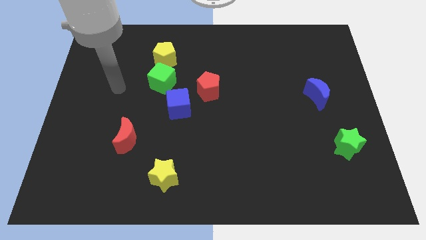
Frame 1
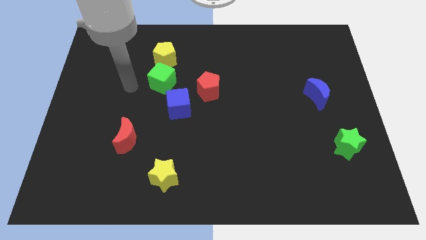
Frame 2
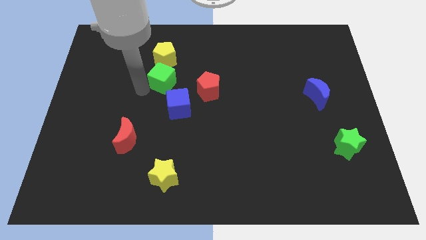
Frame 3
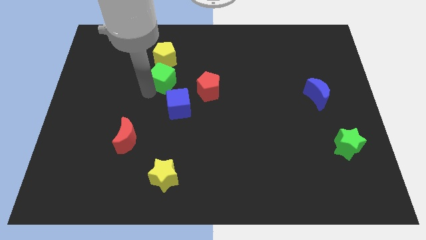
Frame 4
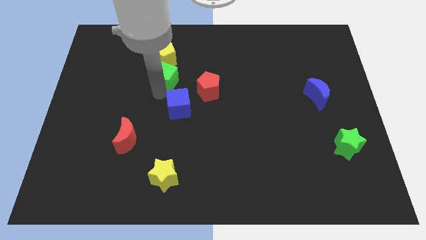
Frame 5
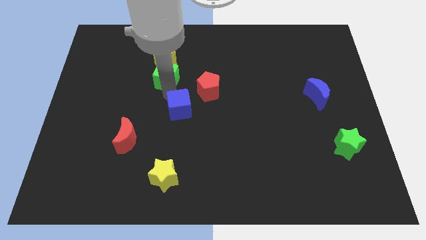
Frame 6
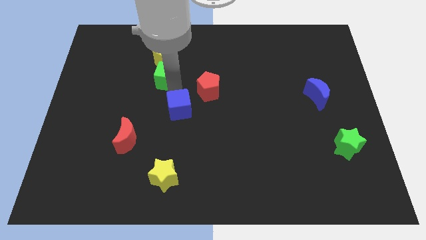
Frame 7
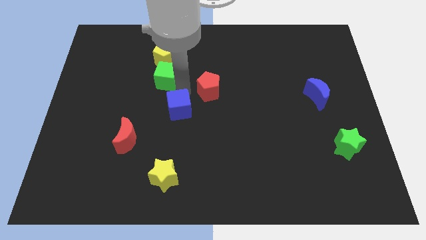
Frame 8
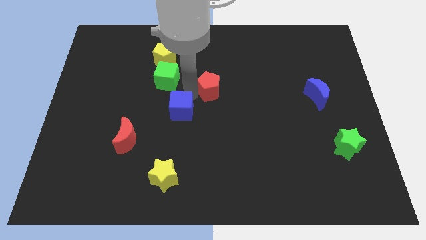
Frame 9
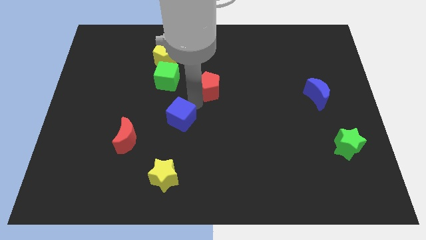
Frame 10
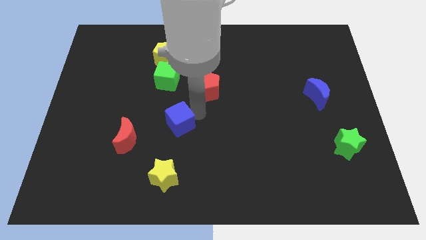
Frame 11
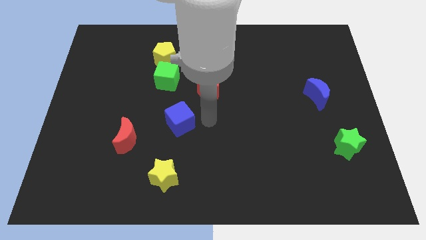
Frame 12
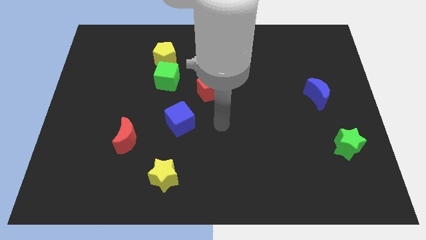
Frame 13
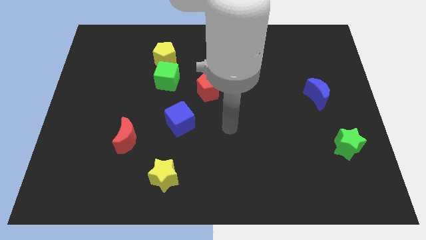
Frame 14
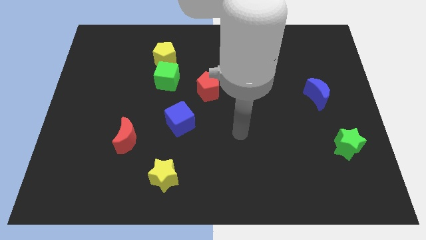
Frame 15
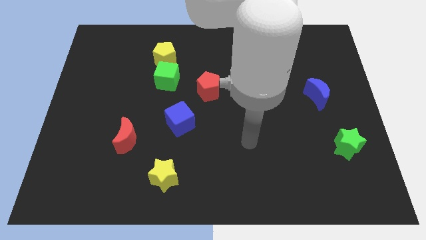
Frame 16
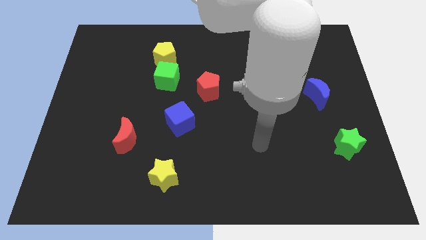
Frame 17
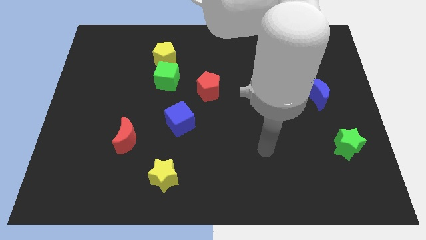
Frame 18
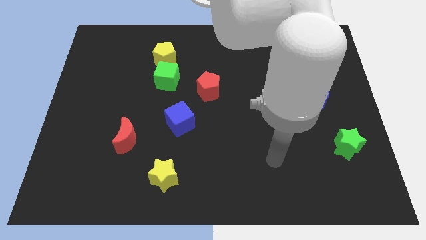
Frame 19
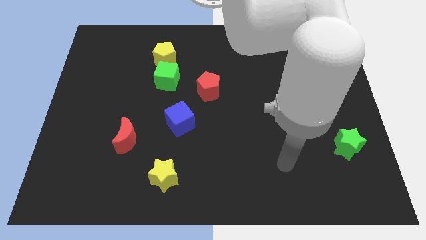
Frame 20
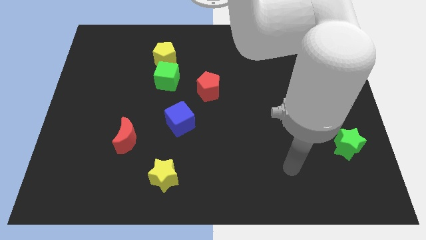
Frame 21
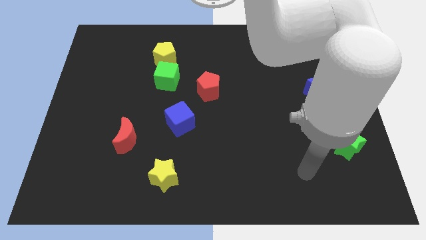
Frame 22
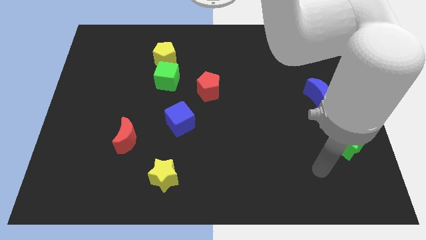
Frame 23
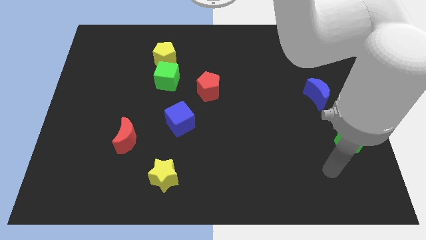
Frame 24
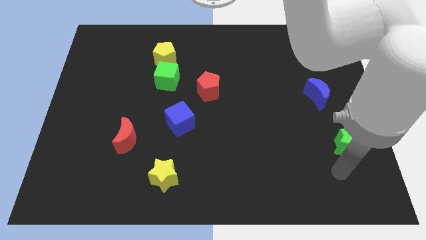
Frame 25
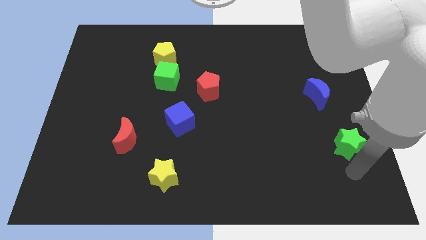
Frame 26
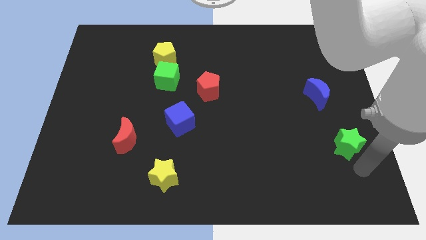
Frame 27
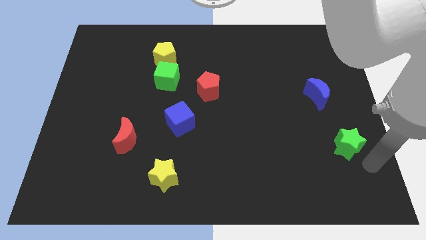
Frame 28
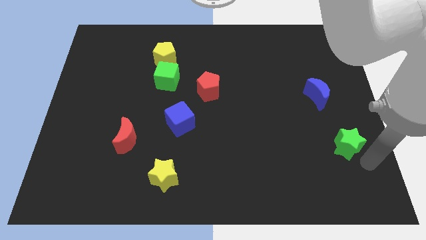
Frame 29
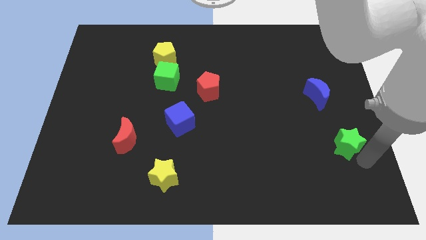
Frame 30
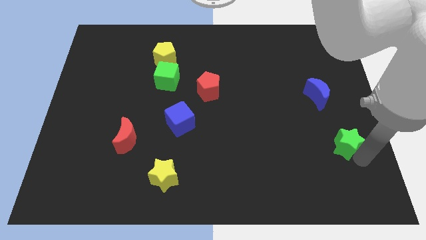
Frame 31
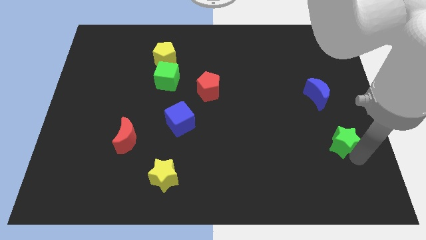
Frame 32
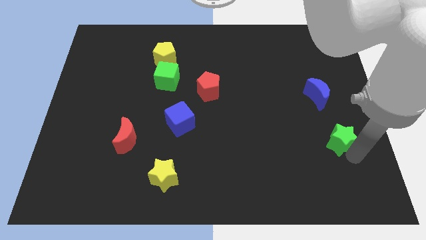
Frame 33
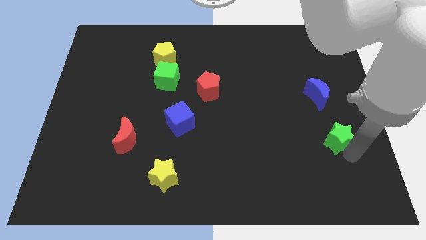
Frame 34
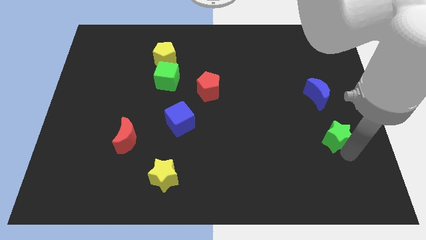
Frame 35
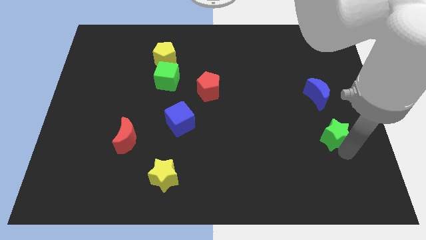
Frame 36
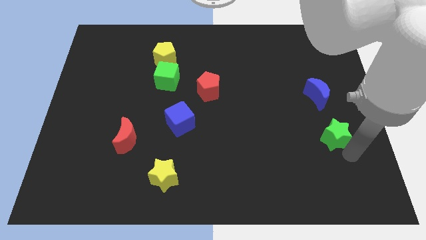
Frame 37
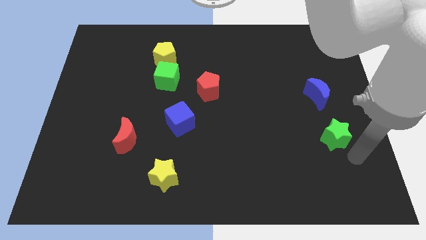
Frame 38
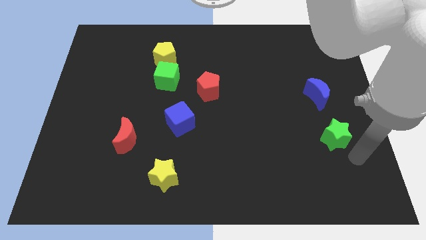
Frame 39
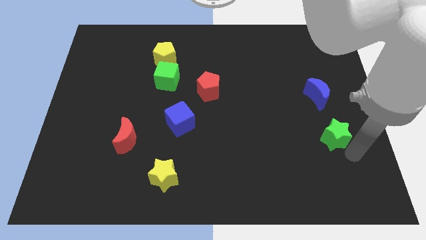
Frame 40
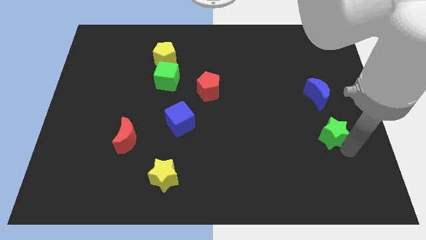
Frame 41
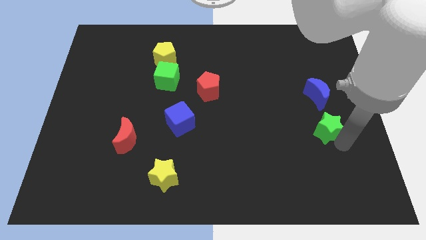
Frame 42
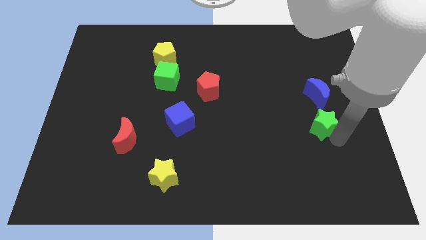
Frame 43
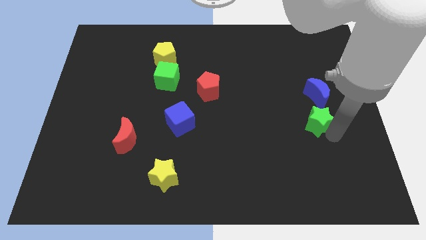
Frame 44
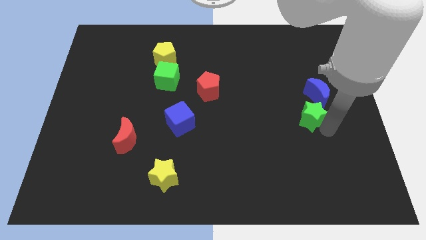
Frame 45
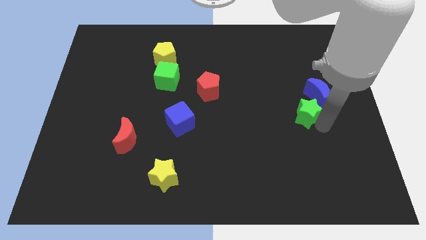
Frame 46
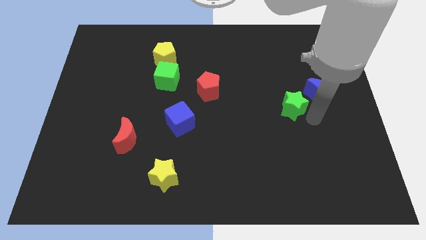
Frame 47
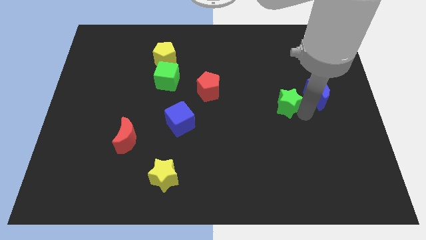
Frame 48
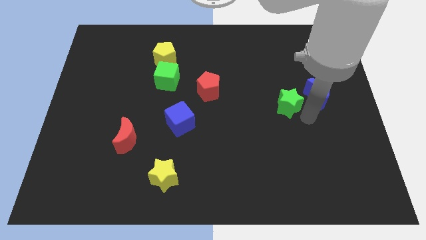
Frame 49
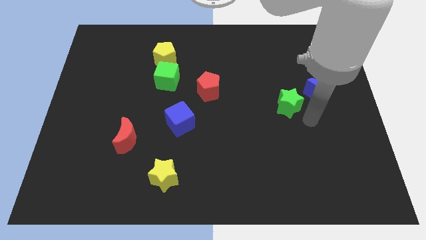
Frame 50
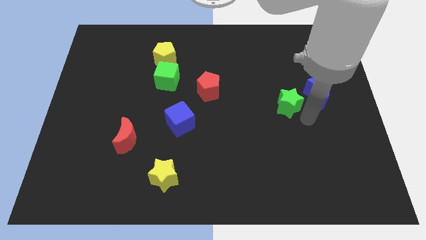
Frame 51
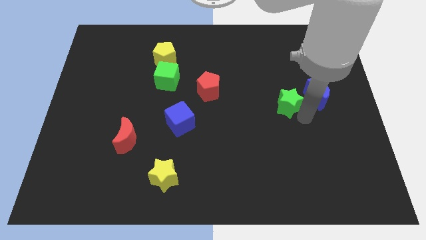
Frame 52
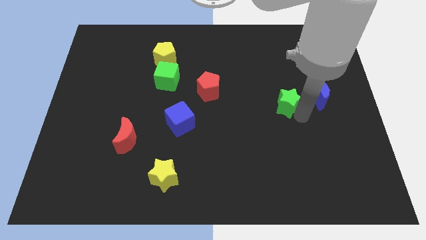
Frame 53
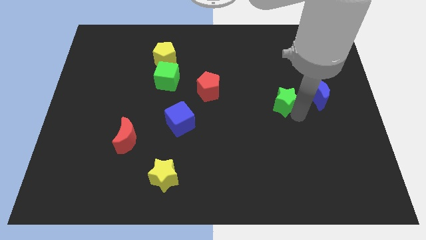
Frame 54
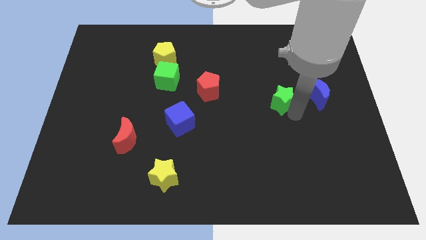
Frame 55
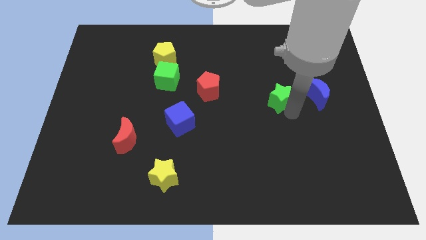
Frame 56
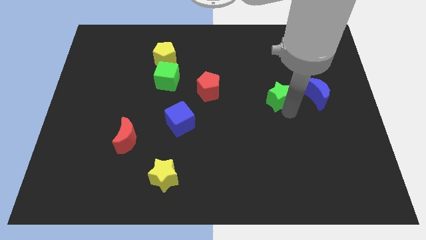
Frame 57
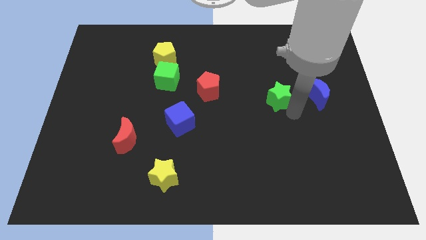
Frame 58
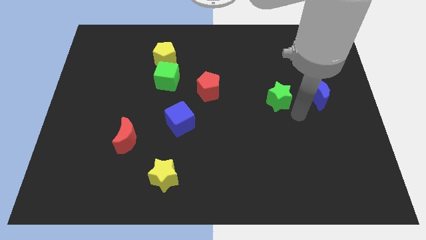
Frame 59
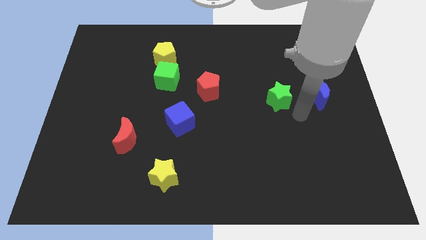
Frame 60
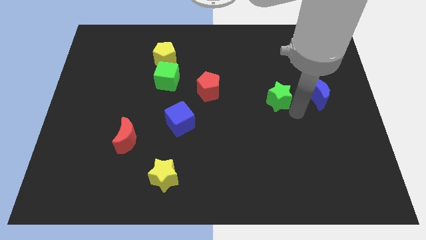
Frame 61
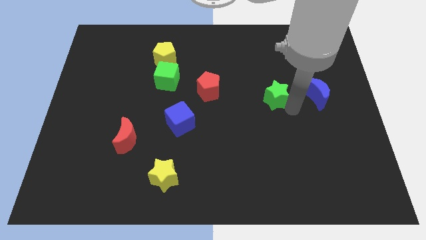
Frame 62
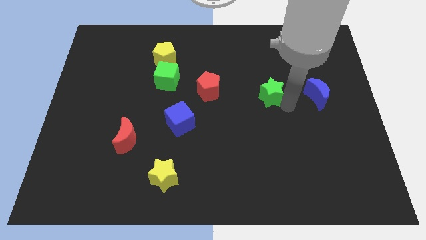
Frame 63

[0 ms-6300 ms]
push the green star diagonally up and to the left

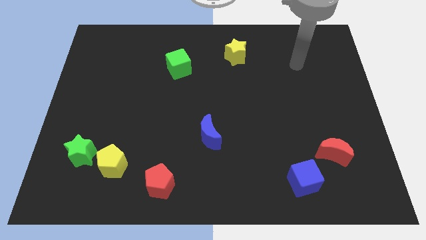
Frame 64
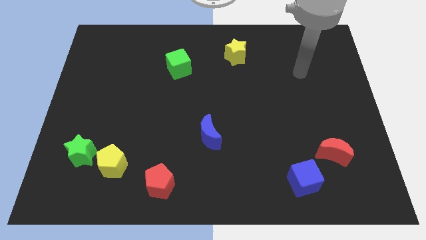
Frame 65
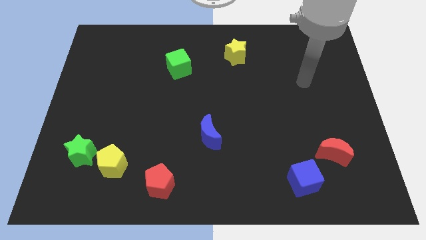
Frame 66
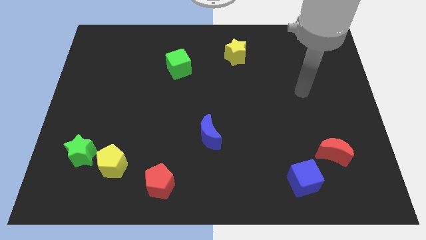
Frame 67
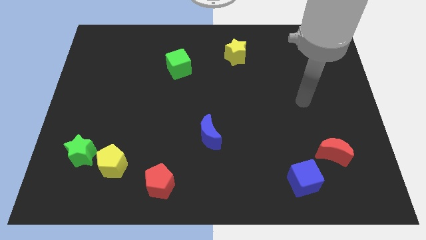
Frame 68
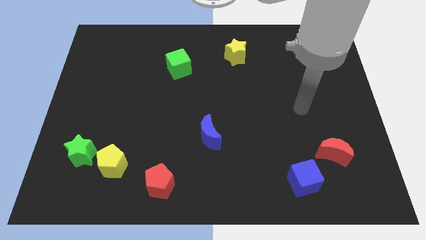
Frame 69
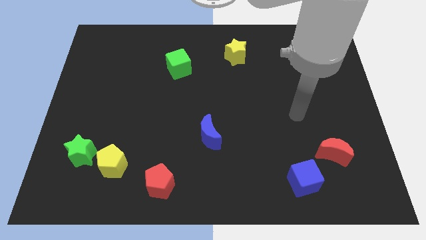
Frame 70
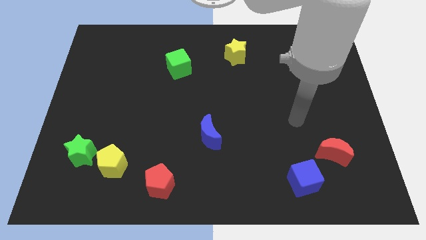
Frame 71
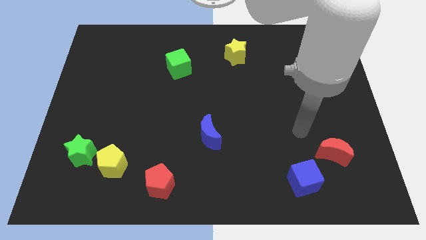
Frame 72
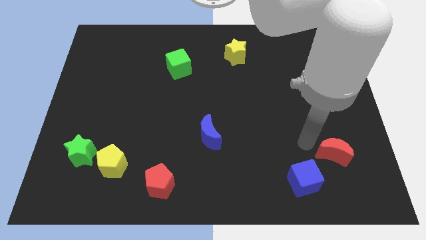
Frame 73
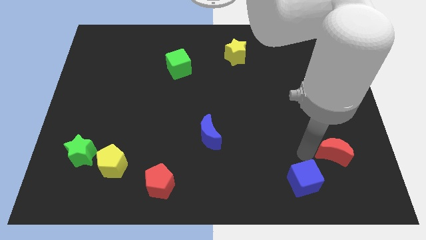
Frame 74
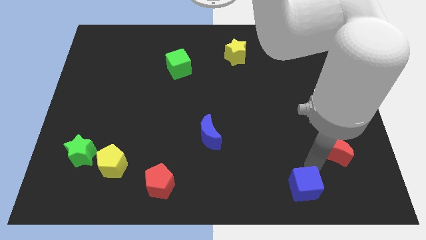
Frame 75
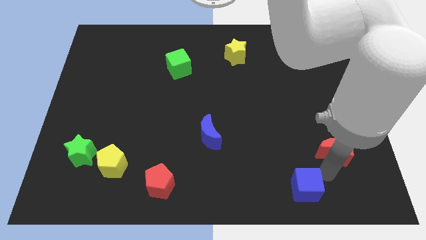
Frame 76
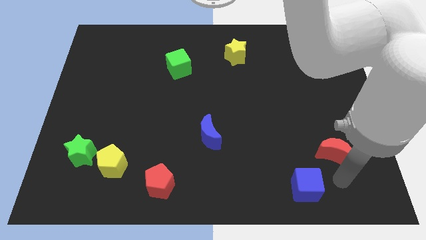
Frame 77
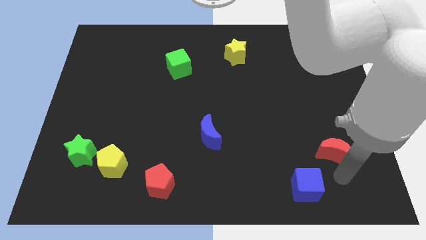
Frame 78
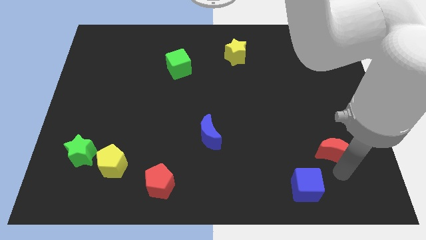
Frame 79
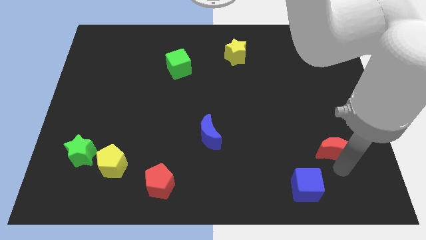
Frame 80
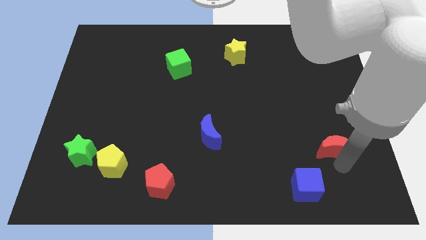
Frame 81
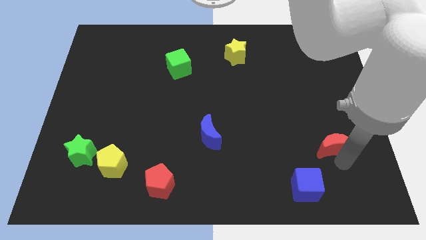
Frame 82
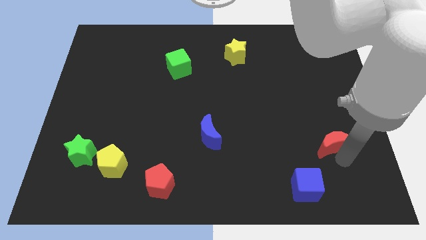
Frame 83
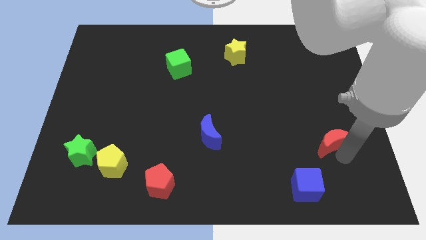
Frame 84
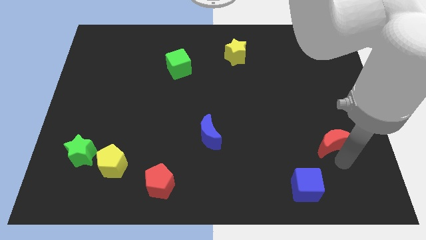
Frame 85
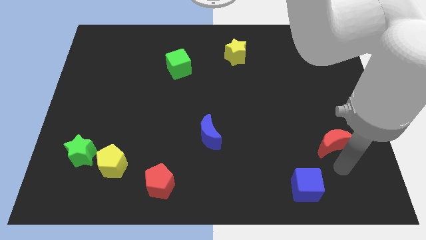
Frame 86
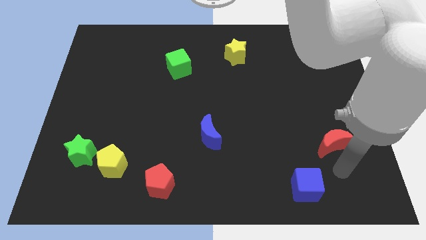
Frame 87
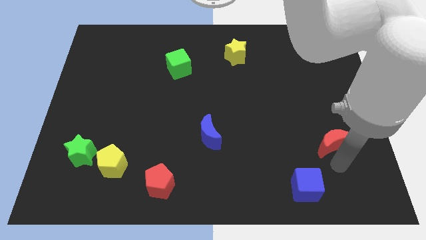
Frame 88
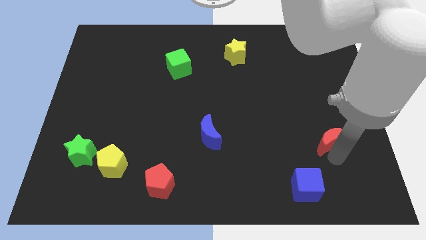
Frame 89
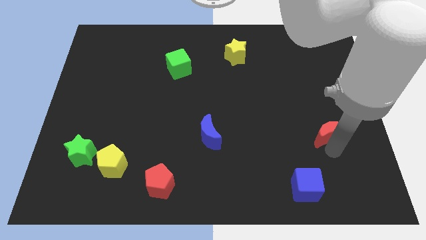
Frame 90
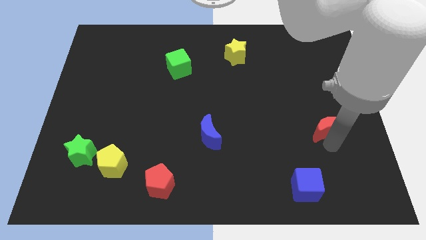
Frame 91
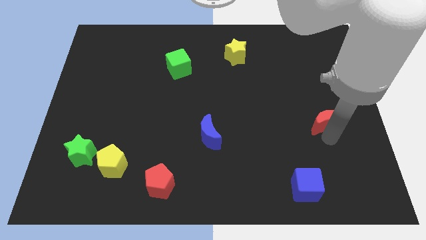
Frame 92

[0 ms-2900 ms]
move the red moon somewhat upwards
